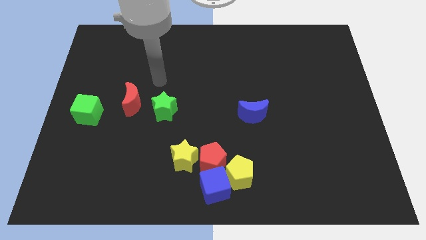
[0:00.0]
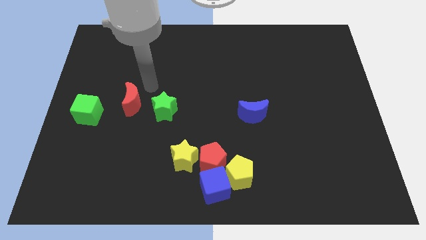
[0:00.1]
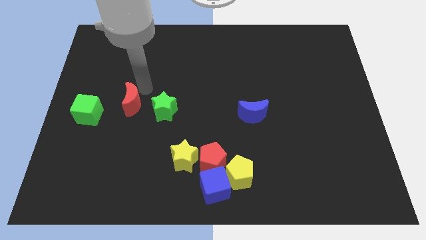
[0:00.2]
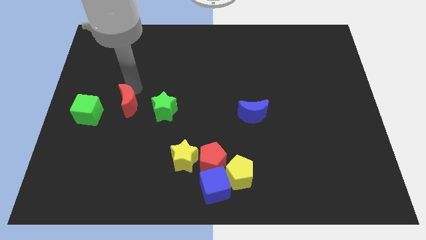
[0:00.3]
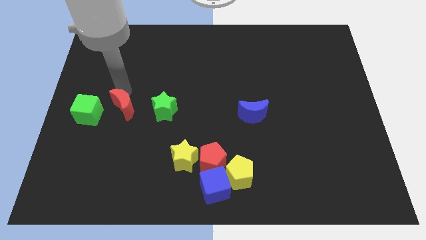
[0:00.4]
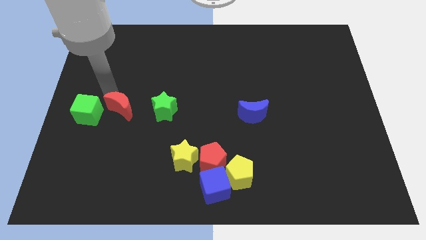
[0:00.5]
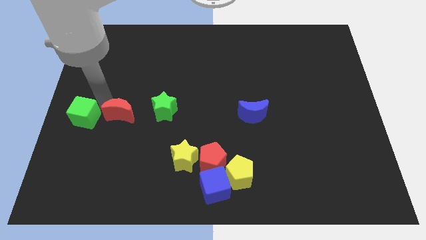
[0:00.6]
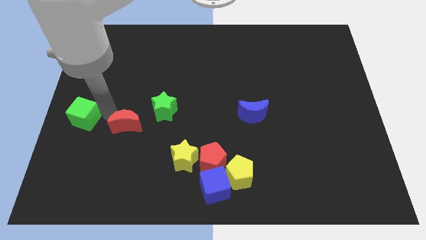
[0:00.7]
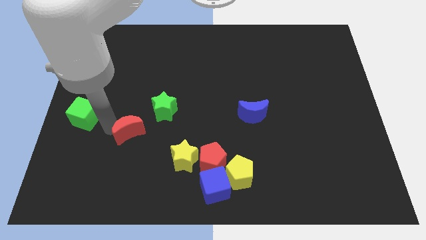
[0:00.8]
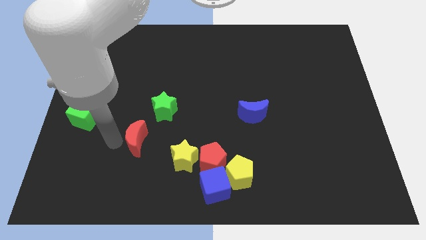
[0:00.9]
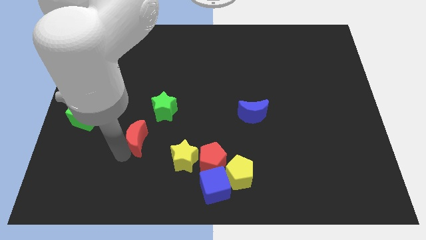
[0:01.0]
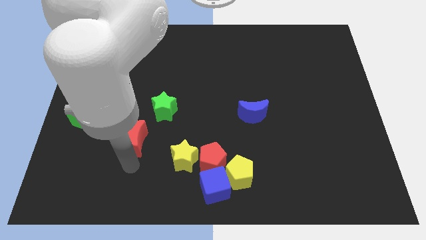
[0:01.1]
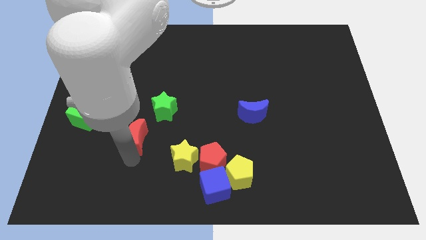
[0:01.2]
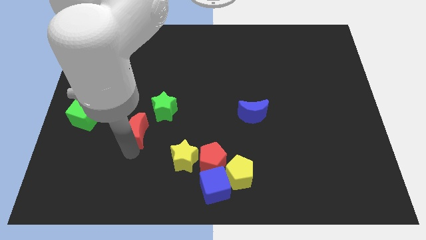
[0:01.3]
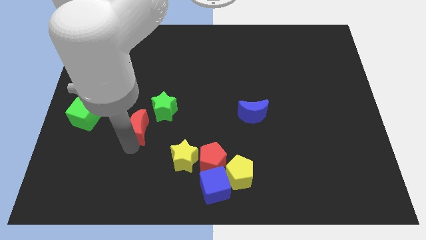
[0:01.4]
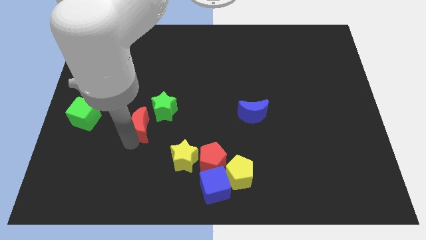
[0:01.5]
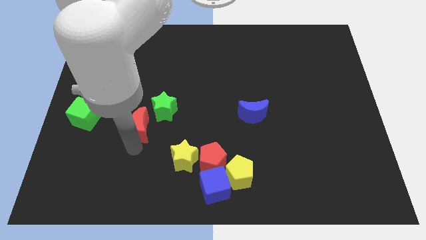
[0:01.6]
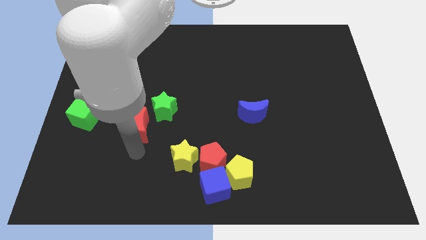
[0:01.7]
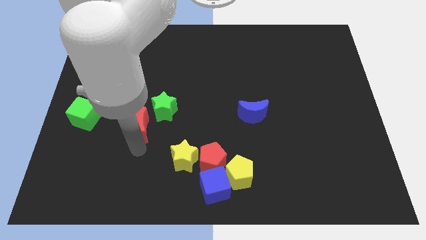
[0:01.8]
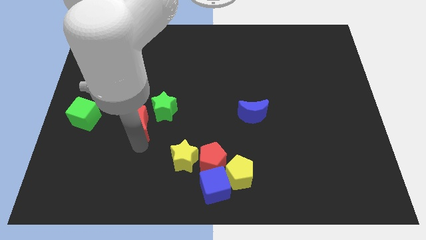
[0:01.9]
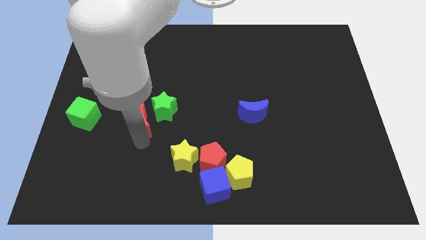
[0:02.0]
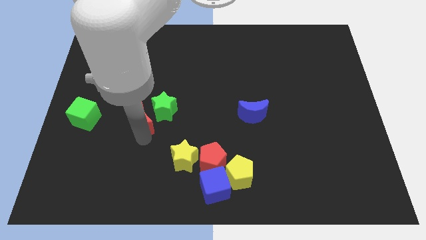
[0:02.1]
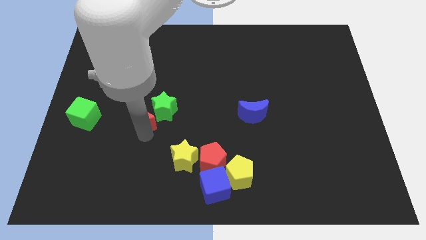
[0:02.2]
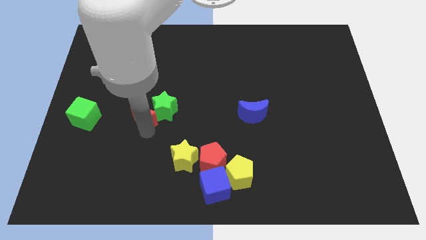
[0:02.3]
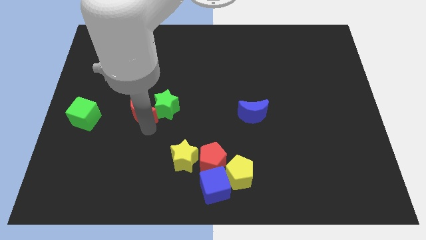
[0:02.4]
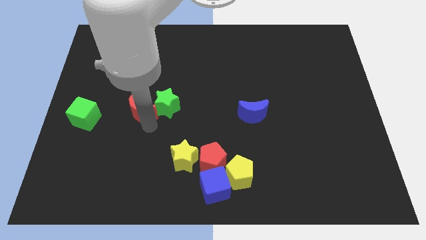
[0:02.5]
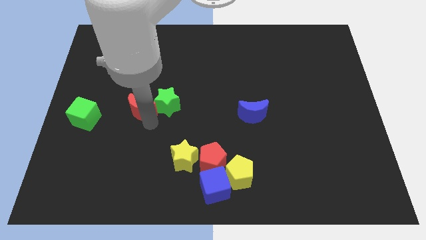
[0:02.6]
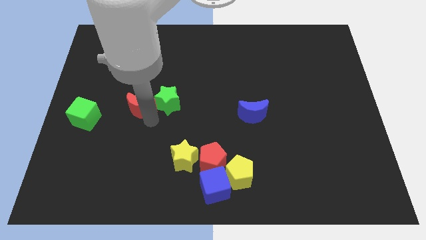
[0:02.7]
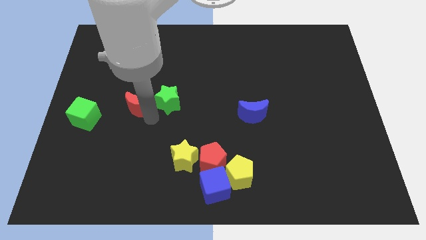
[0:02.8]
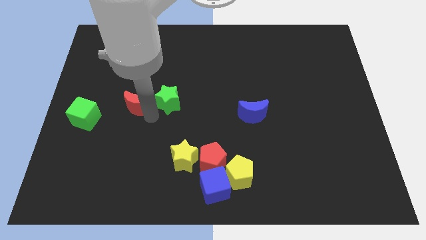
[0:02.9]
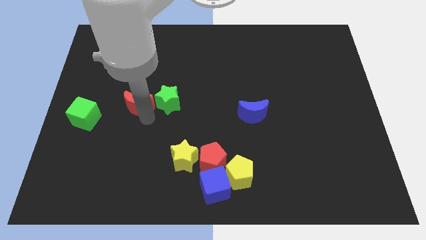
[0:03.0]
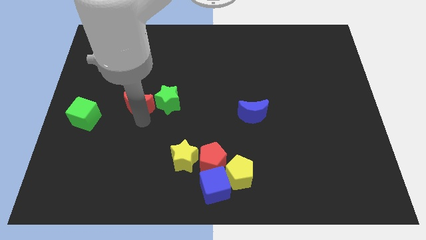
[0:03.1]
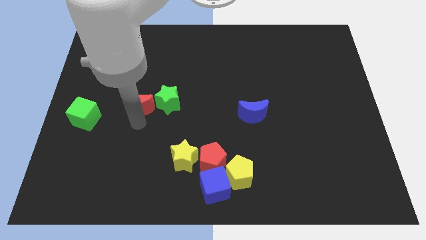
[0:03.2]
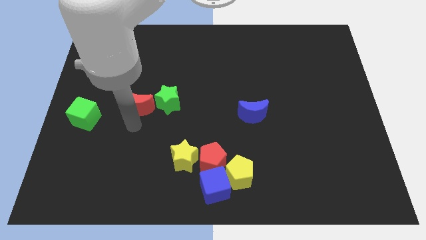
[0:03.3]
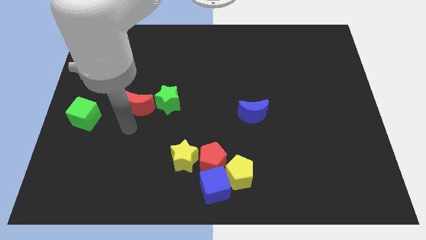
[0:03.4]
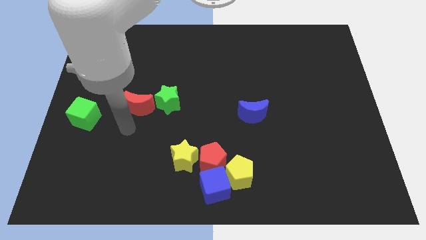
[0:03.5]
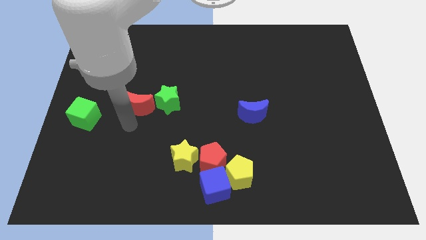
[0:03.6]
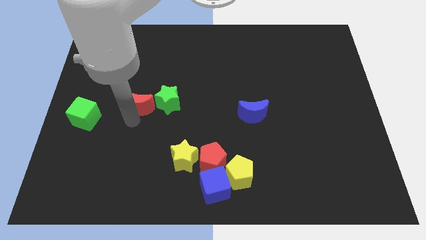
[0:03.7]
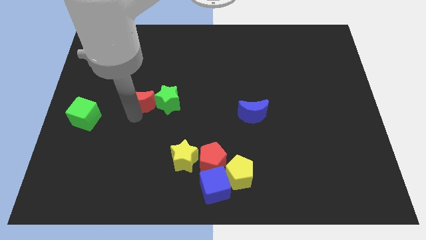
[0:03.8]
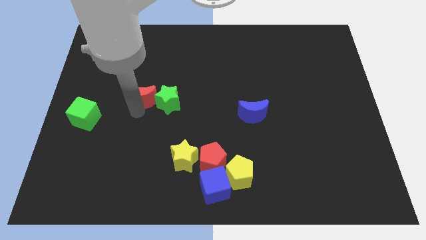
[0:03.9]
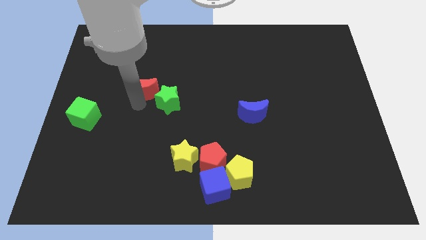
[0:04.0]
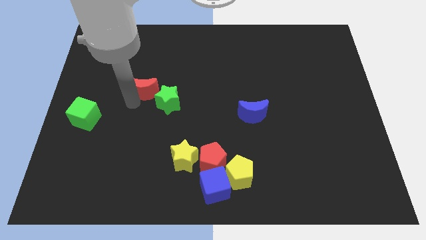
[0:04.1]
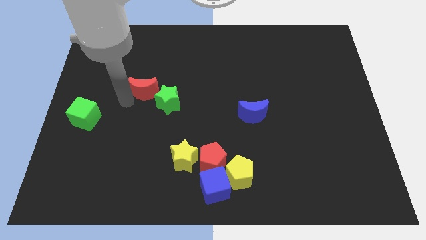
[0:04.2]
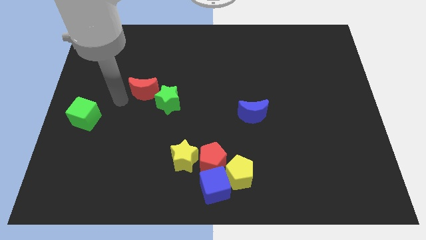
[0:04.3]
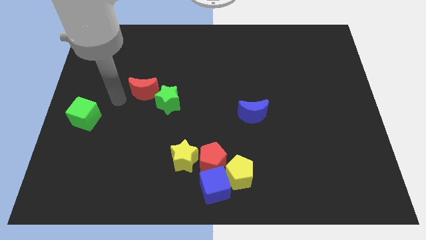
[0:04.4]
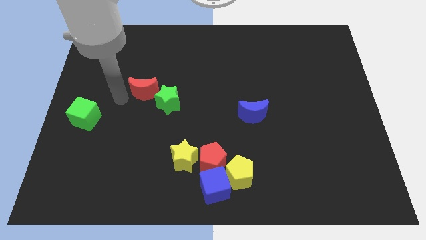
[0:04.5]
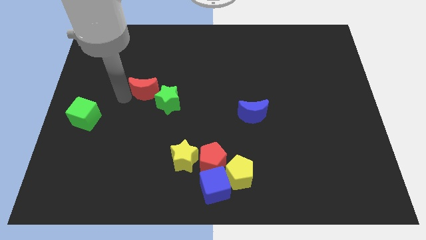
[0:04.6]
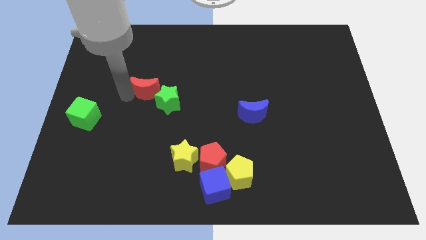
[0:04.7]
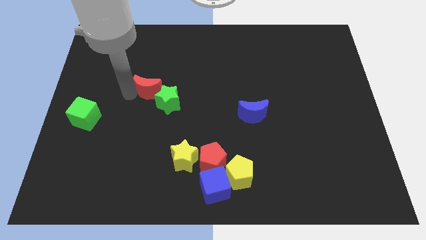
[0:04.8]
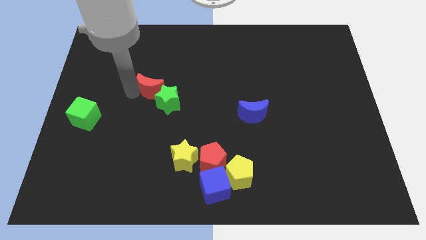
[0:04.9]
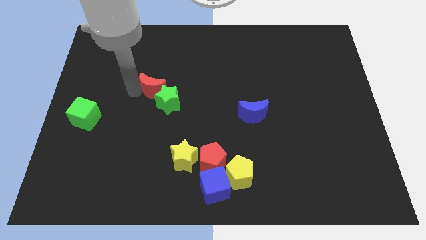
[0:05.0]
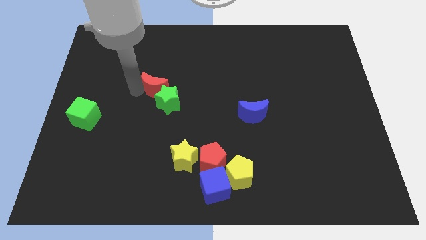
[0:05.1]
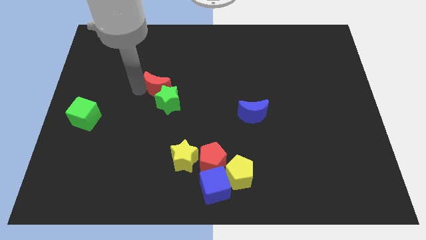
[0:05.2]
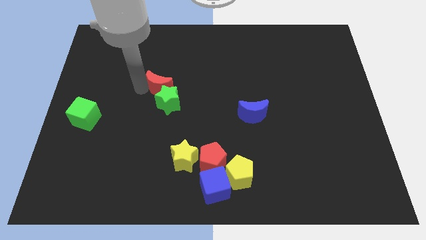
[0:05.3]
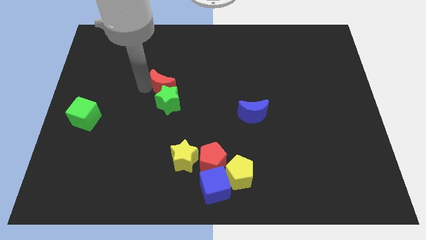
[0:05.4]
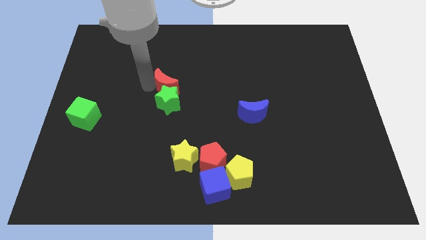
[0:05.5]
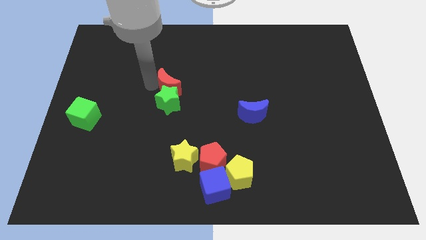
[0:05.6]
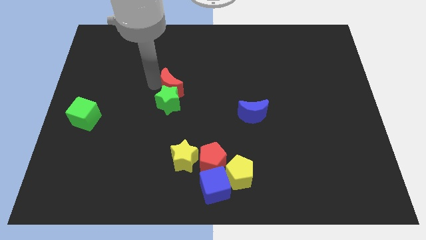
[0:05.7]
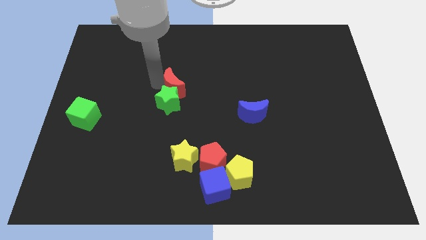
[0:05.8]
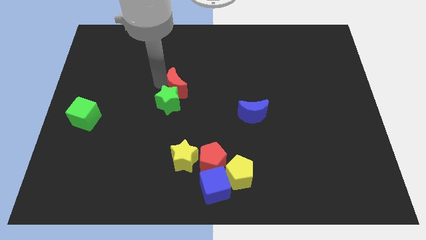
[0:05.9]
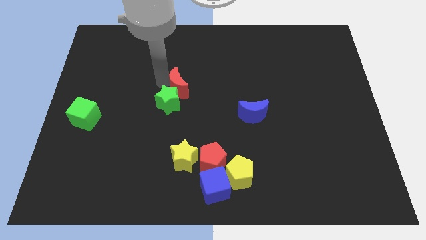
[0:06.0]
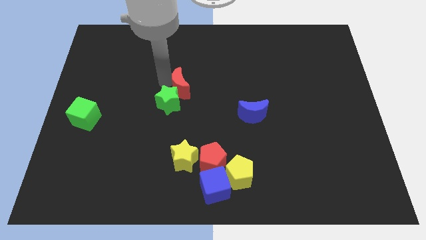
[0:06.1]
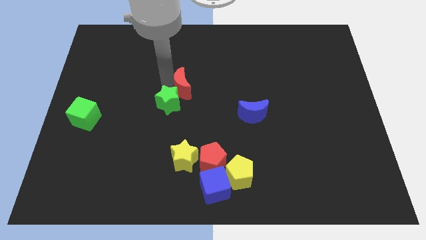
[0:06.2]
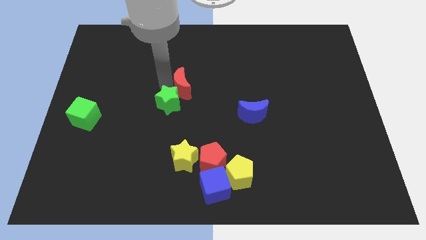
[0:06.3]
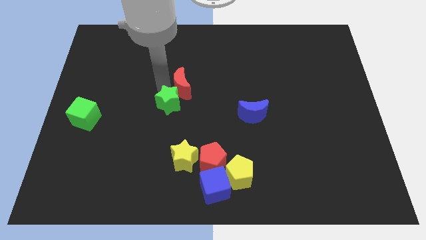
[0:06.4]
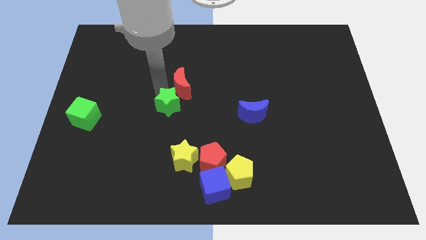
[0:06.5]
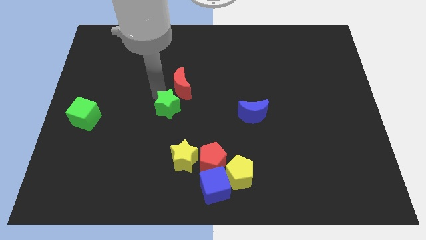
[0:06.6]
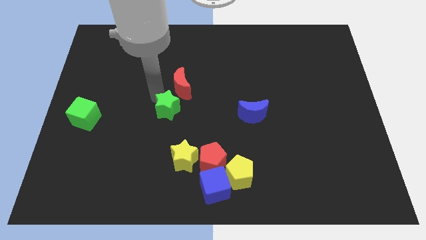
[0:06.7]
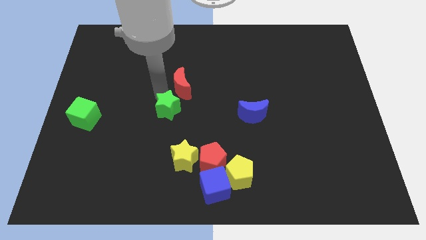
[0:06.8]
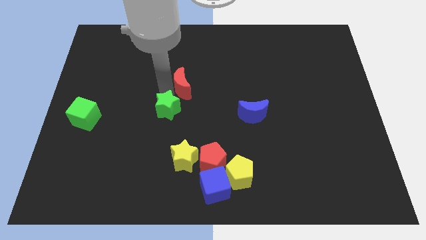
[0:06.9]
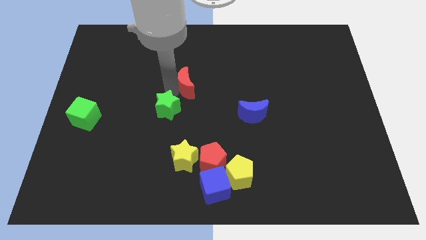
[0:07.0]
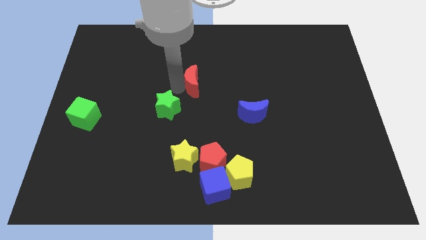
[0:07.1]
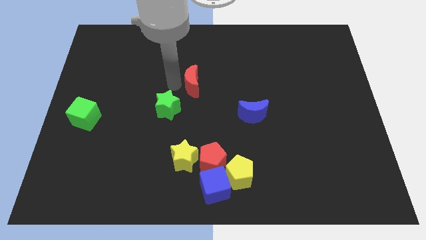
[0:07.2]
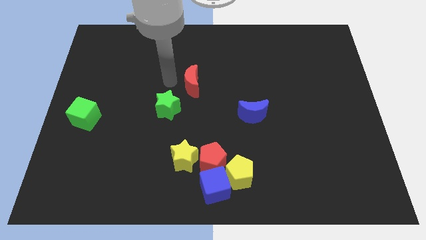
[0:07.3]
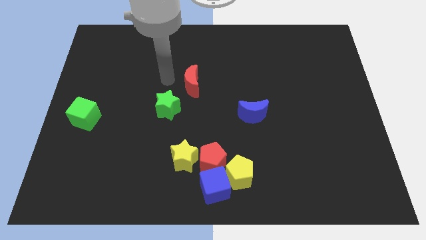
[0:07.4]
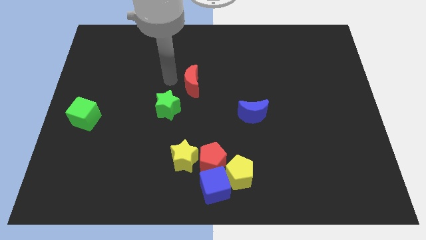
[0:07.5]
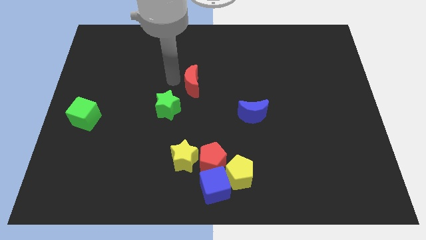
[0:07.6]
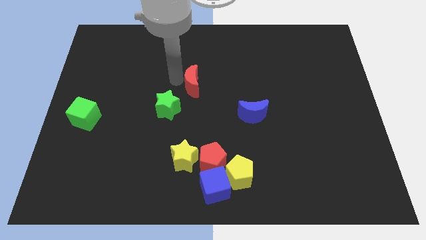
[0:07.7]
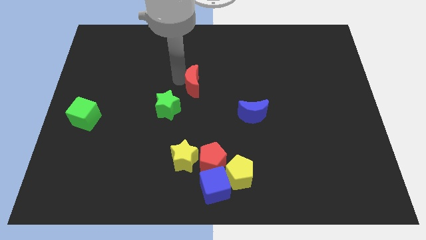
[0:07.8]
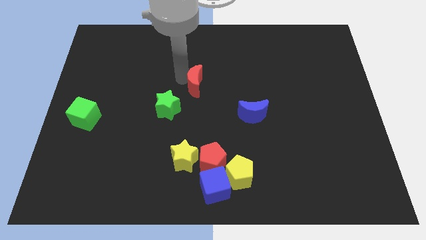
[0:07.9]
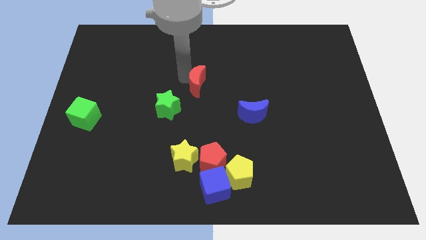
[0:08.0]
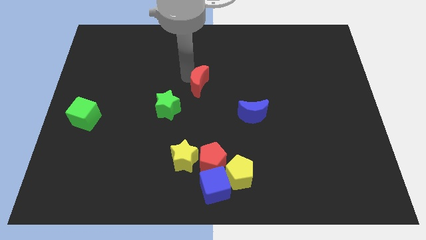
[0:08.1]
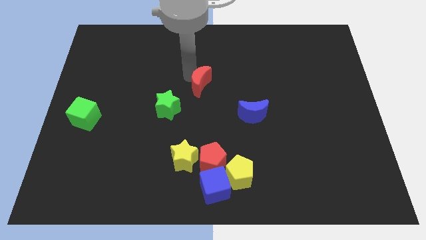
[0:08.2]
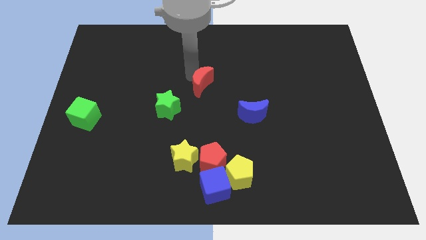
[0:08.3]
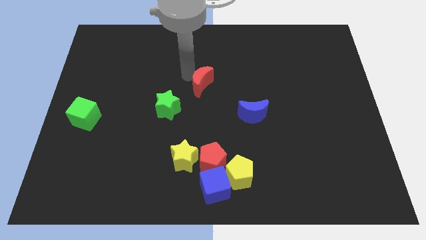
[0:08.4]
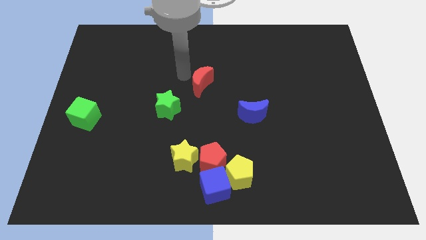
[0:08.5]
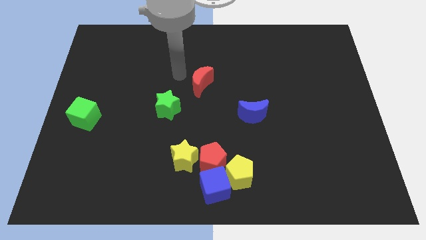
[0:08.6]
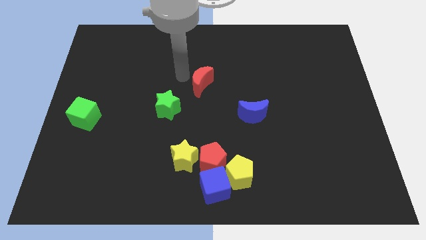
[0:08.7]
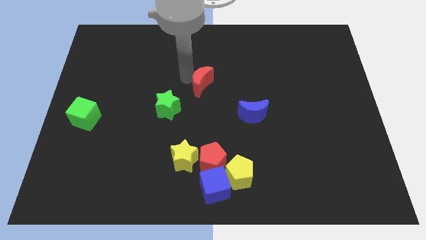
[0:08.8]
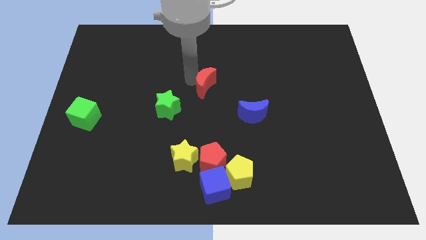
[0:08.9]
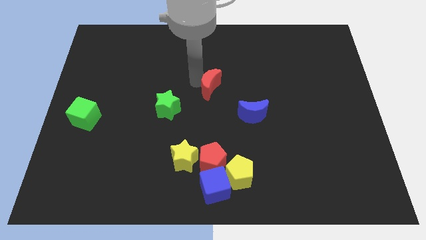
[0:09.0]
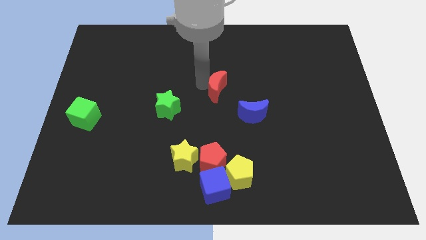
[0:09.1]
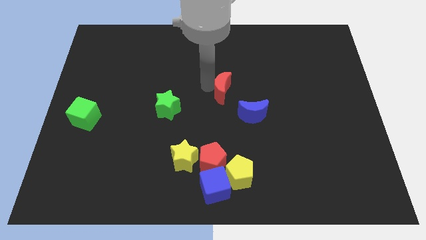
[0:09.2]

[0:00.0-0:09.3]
move the red moon right
